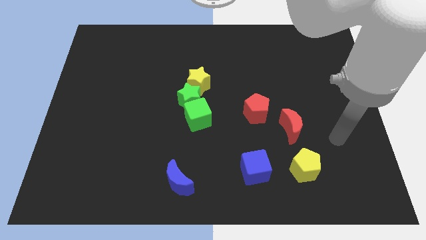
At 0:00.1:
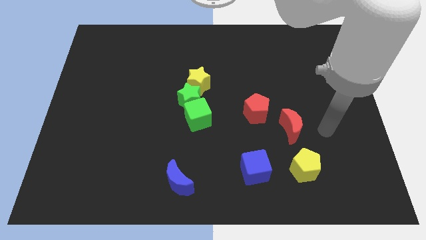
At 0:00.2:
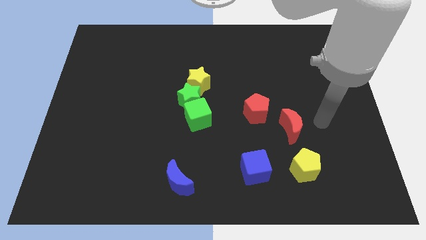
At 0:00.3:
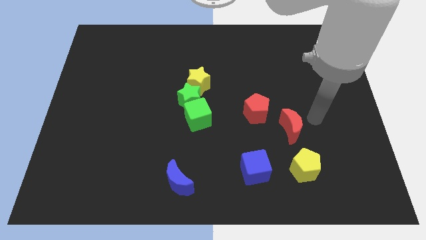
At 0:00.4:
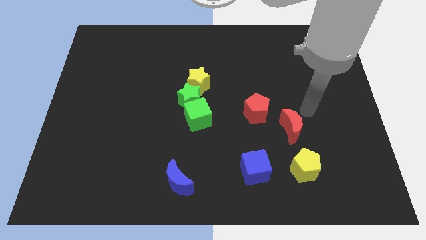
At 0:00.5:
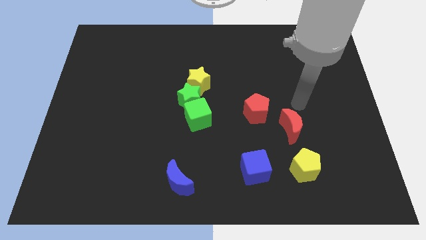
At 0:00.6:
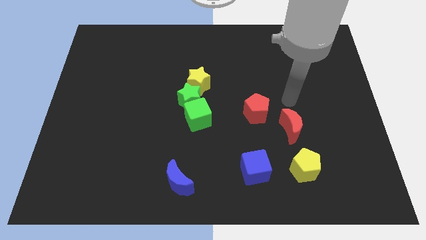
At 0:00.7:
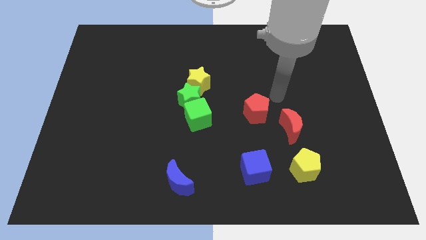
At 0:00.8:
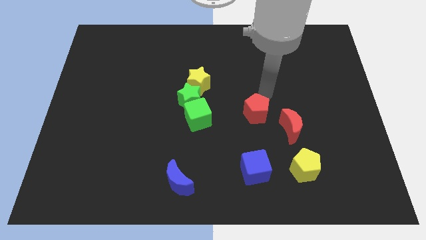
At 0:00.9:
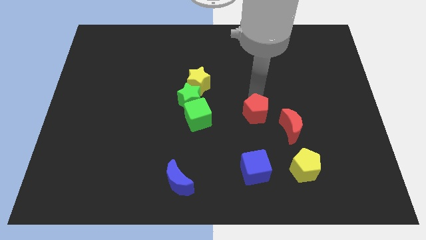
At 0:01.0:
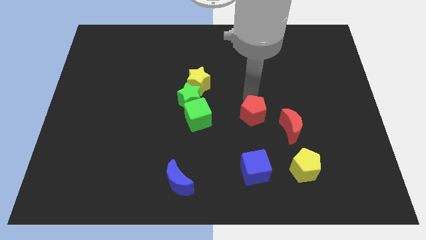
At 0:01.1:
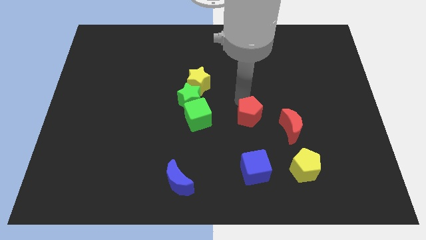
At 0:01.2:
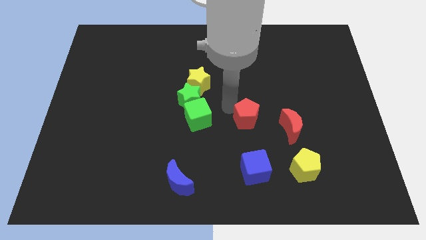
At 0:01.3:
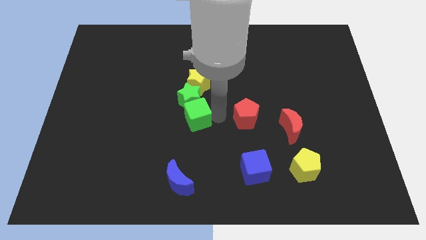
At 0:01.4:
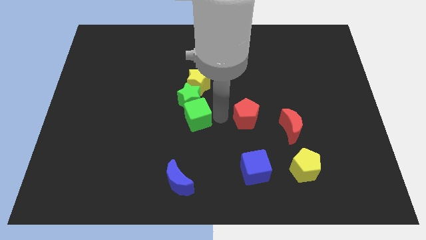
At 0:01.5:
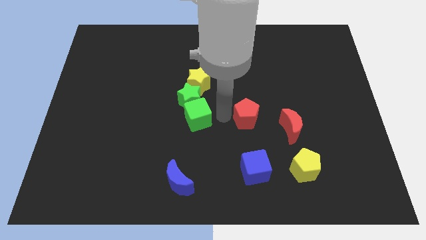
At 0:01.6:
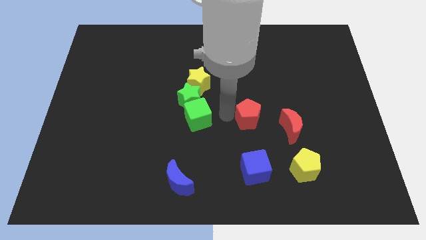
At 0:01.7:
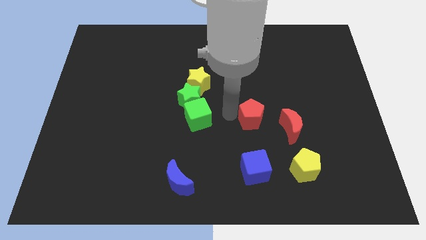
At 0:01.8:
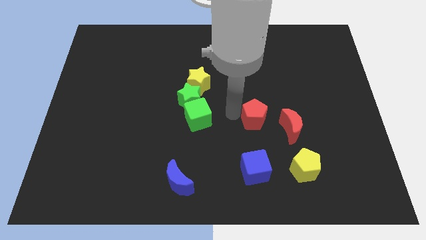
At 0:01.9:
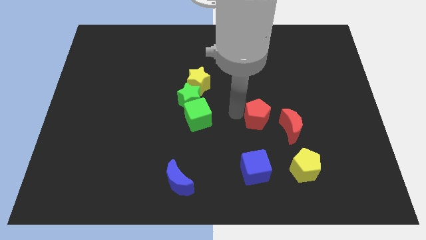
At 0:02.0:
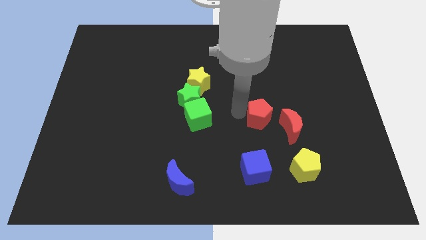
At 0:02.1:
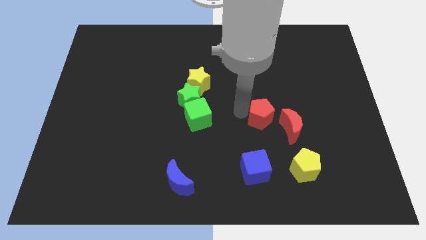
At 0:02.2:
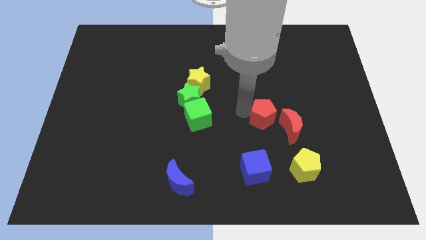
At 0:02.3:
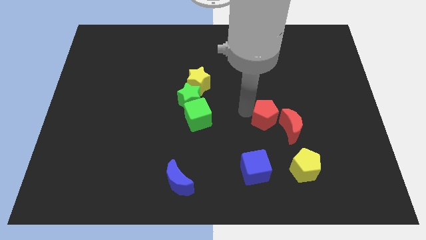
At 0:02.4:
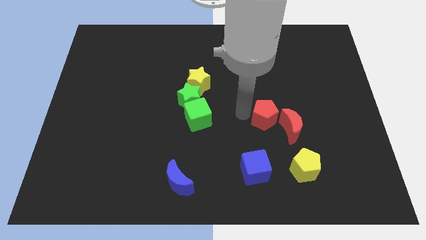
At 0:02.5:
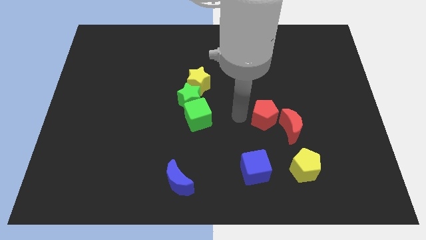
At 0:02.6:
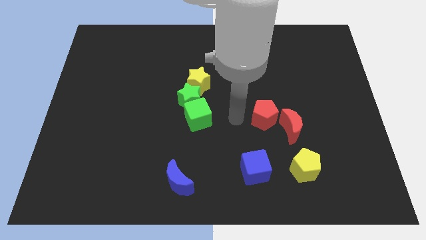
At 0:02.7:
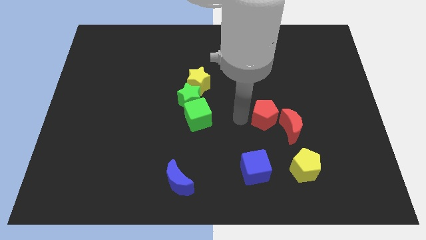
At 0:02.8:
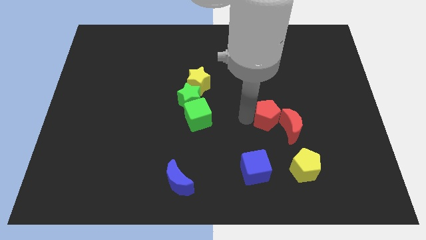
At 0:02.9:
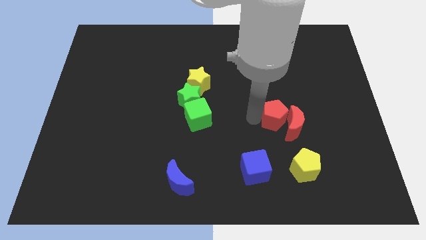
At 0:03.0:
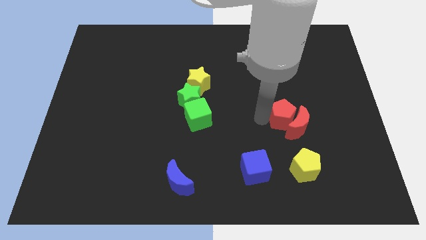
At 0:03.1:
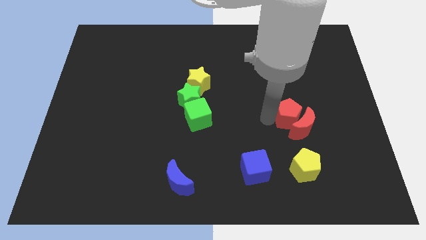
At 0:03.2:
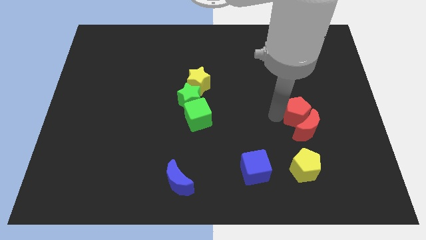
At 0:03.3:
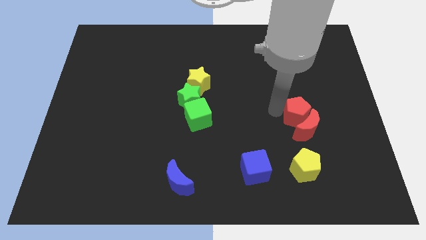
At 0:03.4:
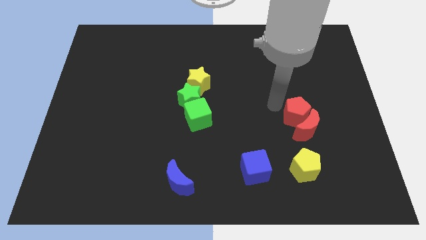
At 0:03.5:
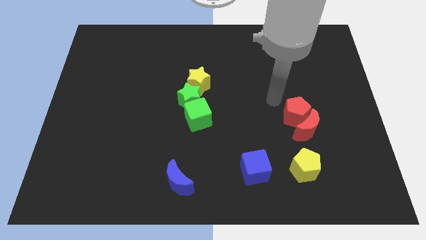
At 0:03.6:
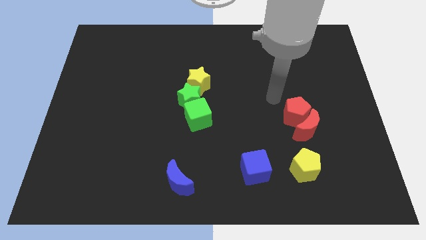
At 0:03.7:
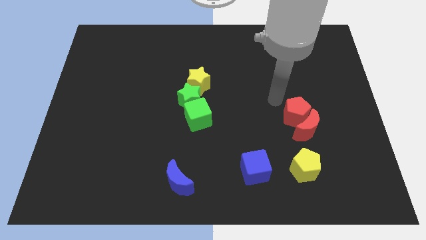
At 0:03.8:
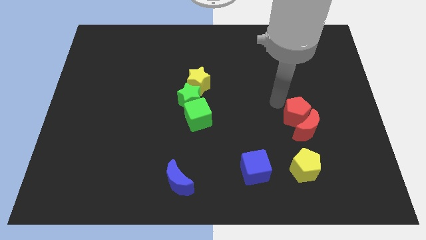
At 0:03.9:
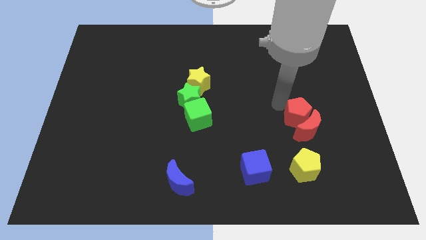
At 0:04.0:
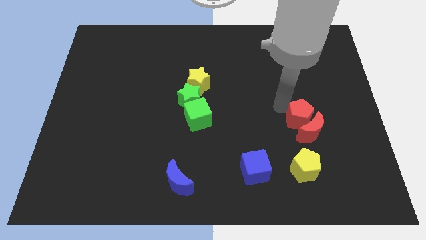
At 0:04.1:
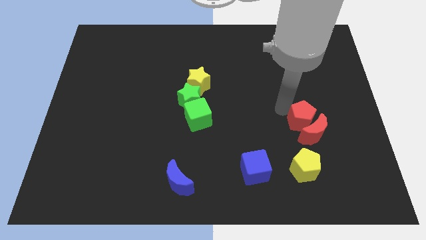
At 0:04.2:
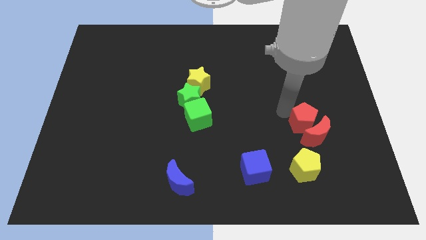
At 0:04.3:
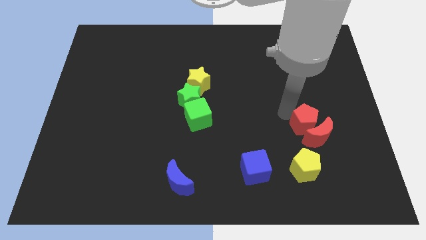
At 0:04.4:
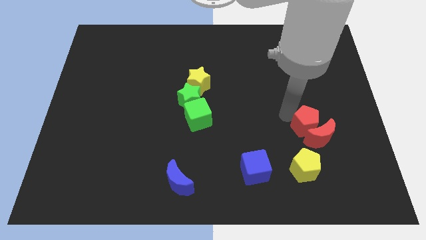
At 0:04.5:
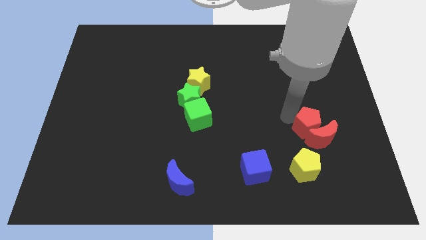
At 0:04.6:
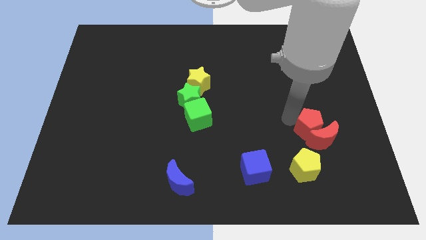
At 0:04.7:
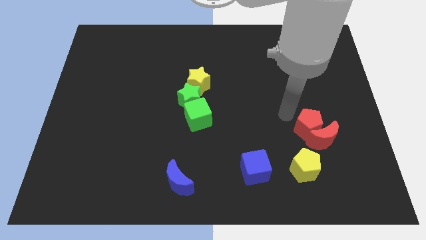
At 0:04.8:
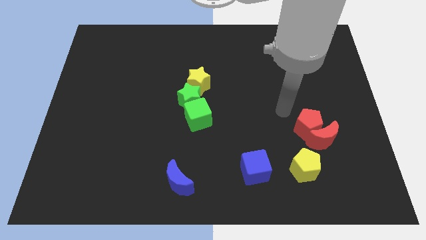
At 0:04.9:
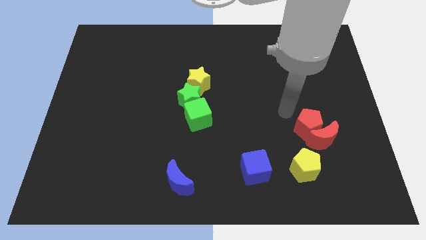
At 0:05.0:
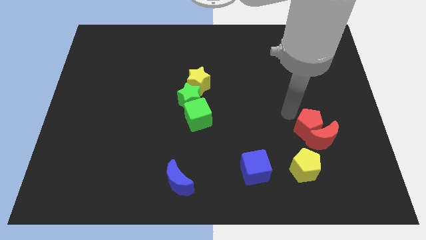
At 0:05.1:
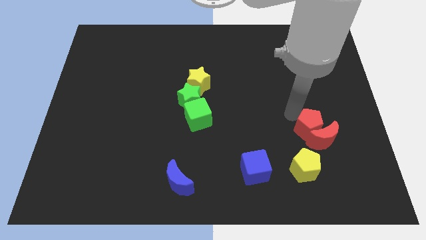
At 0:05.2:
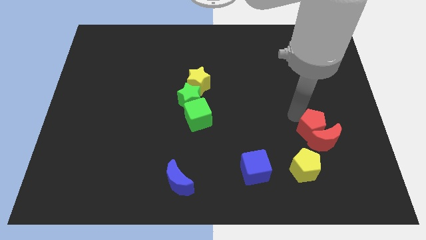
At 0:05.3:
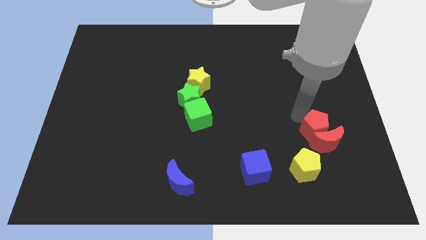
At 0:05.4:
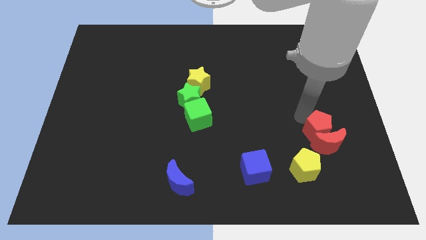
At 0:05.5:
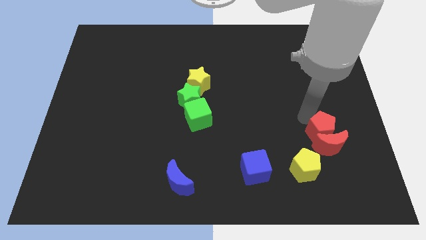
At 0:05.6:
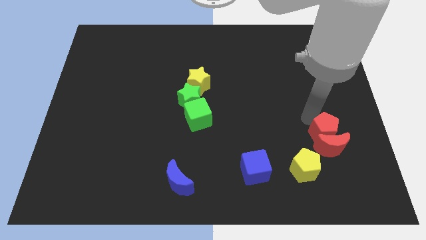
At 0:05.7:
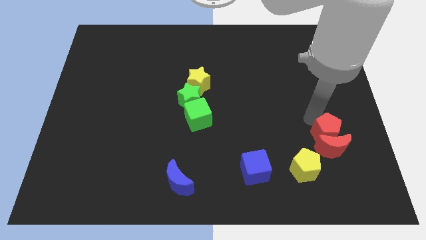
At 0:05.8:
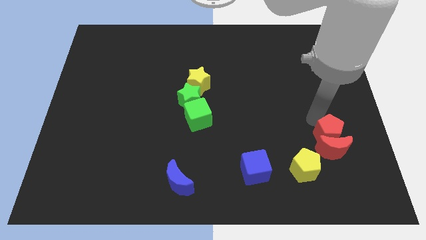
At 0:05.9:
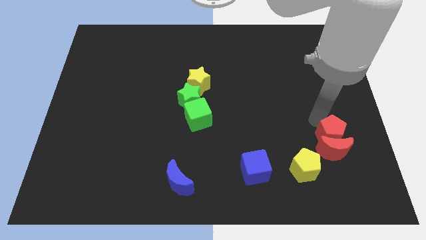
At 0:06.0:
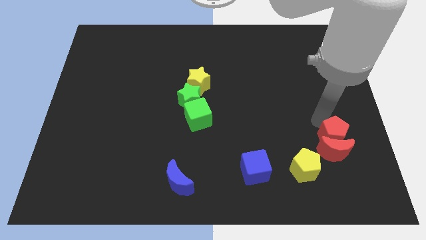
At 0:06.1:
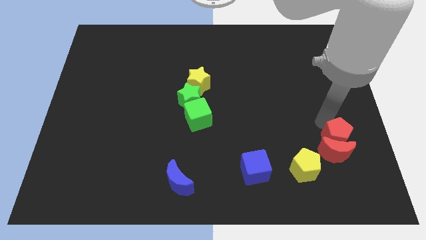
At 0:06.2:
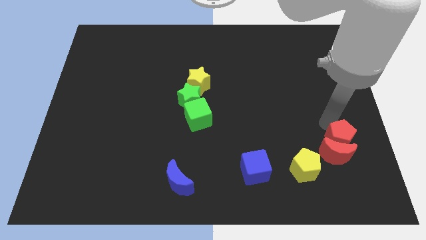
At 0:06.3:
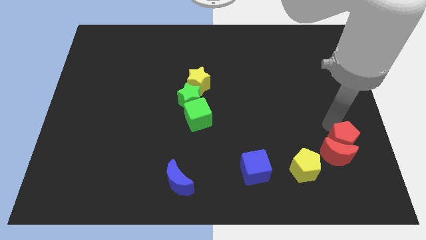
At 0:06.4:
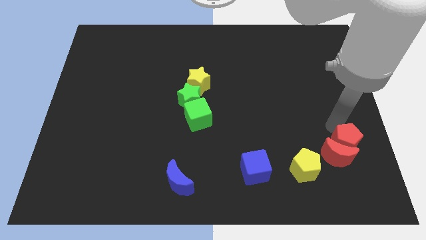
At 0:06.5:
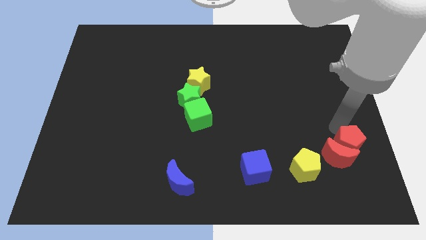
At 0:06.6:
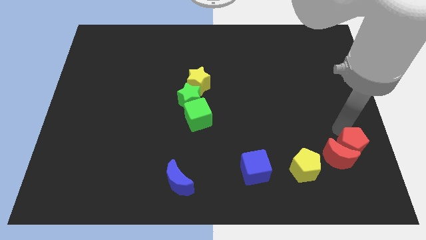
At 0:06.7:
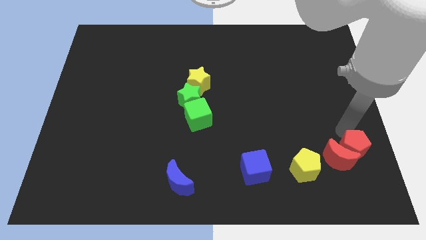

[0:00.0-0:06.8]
push the red pentagon to the right of the yellow pentagon

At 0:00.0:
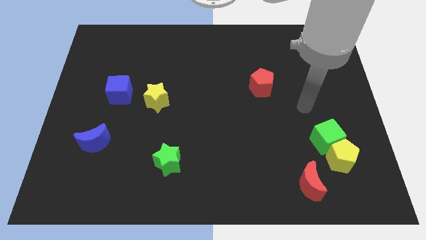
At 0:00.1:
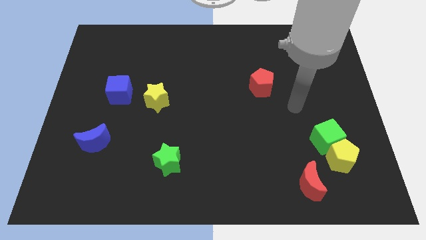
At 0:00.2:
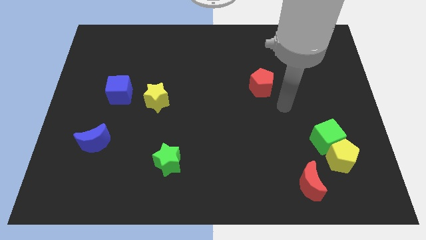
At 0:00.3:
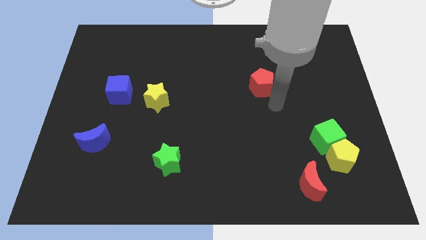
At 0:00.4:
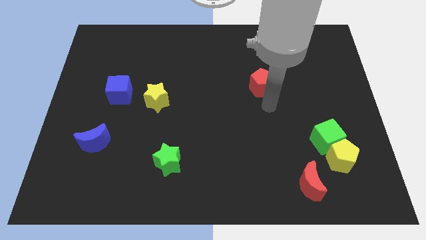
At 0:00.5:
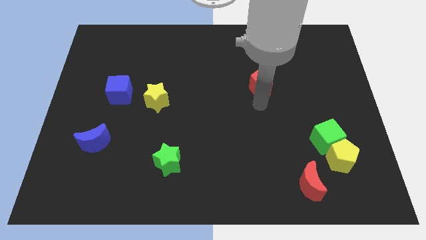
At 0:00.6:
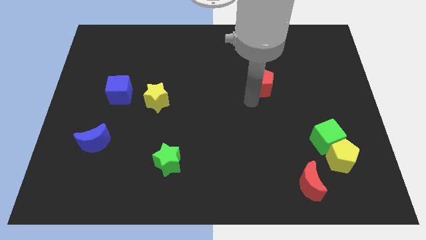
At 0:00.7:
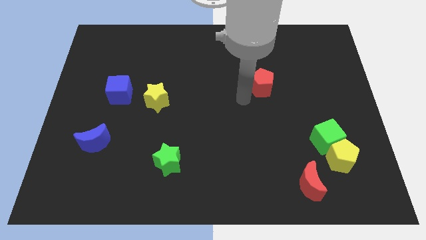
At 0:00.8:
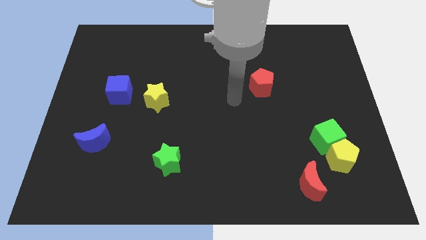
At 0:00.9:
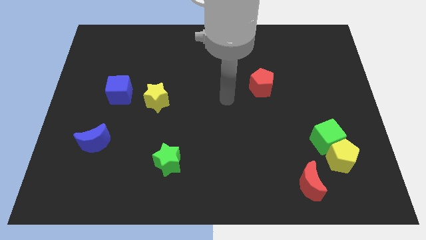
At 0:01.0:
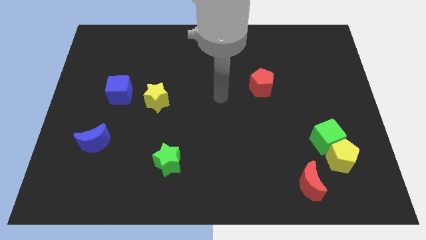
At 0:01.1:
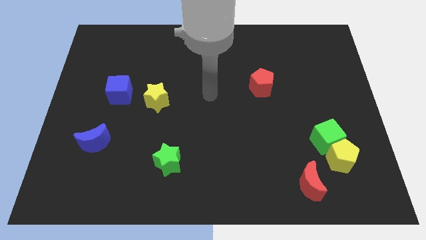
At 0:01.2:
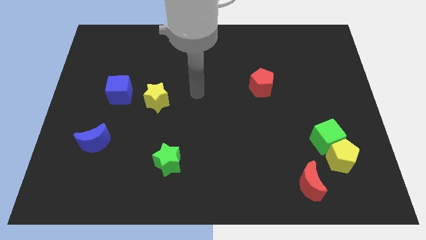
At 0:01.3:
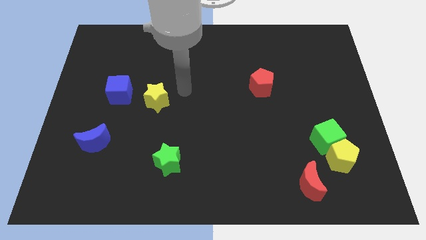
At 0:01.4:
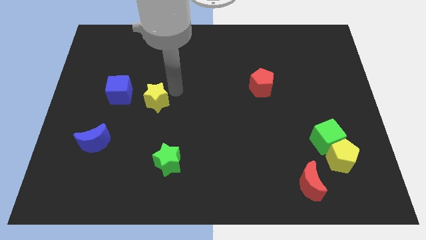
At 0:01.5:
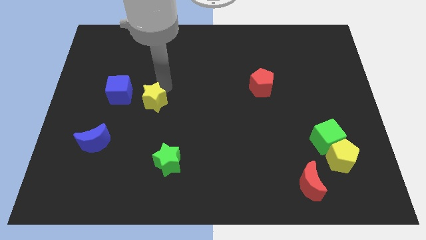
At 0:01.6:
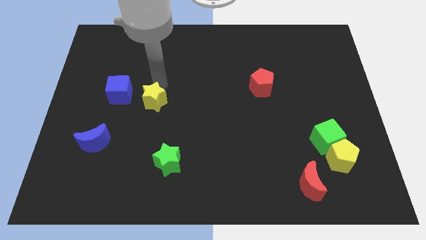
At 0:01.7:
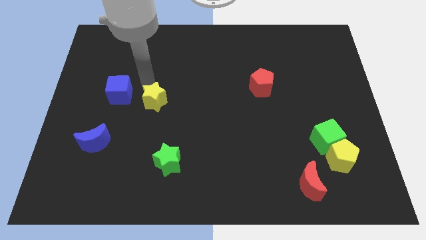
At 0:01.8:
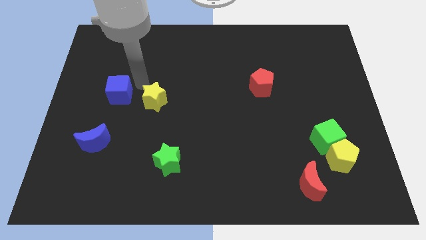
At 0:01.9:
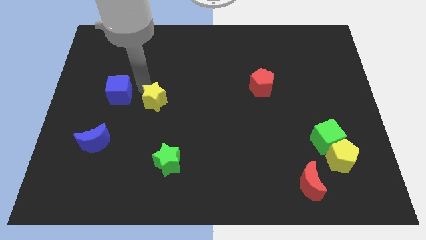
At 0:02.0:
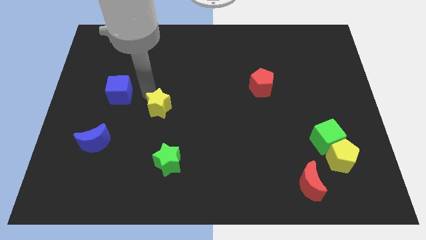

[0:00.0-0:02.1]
put the yellow star to the top side of the green star
